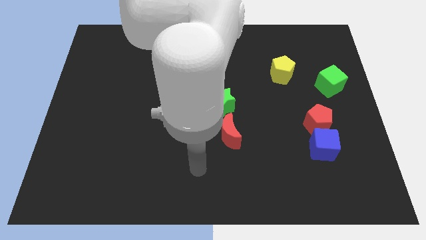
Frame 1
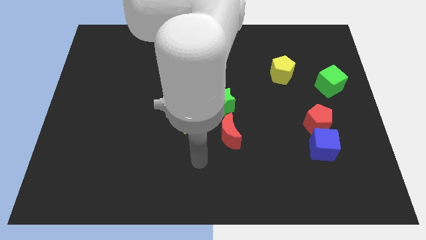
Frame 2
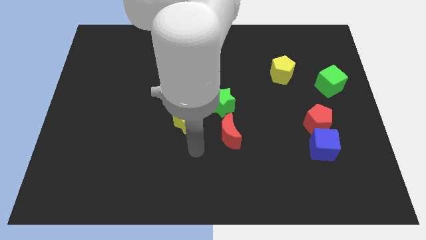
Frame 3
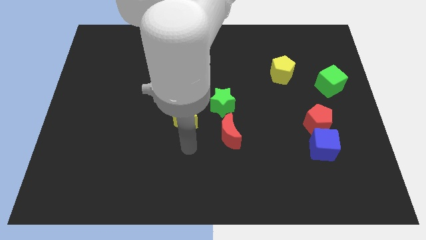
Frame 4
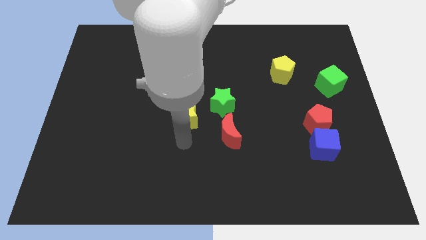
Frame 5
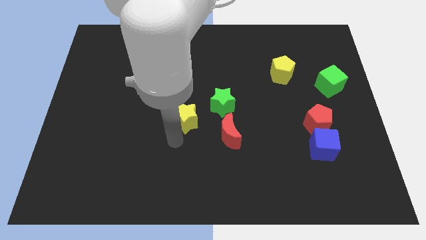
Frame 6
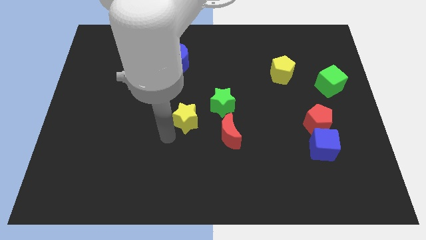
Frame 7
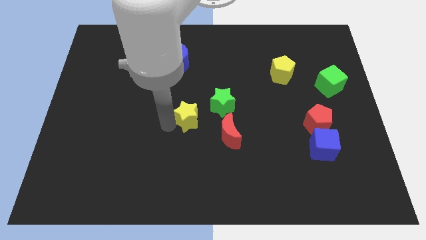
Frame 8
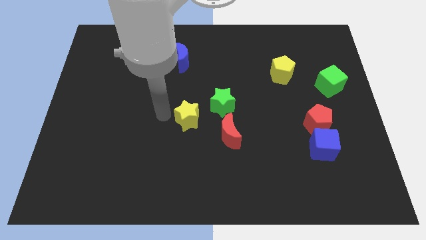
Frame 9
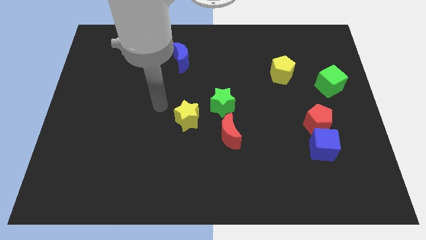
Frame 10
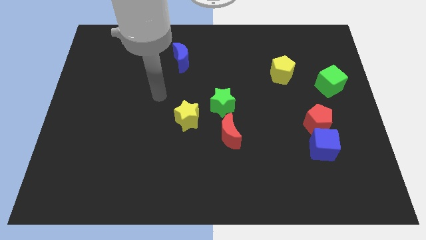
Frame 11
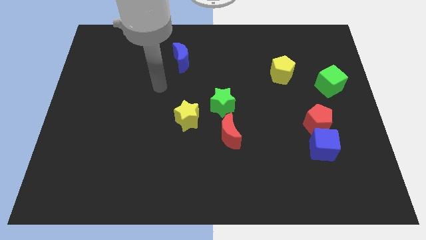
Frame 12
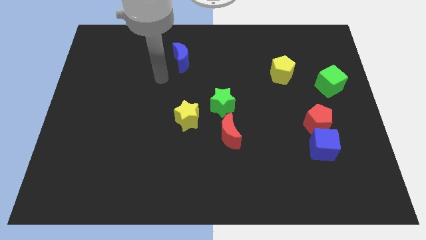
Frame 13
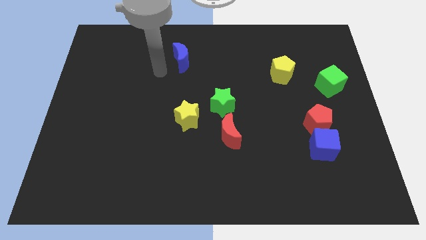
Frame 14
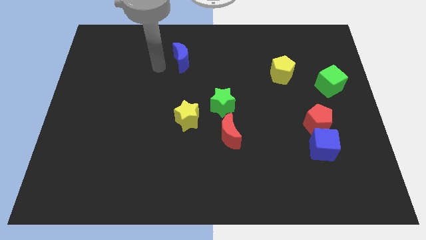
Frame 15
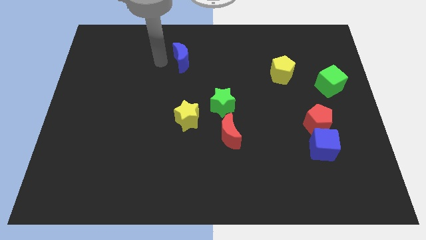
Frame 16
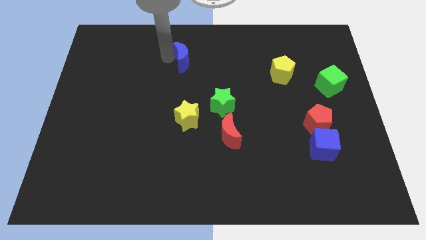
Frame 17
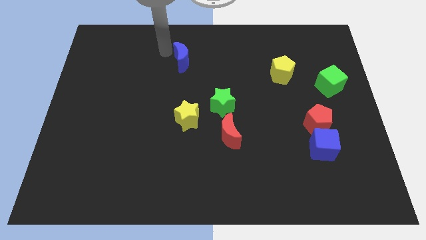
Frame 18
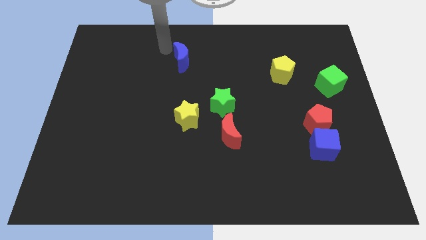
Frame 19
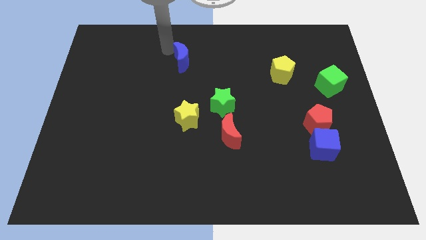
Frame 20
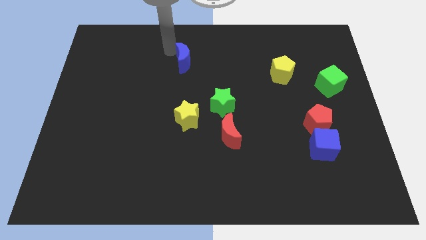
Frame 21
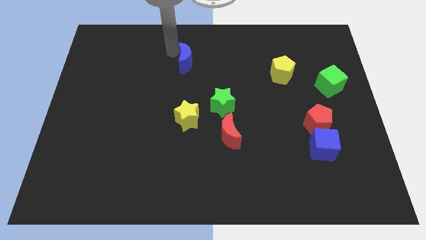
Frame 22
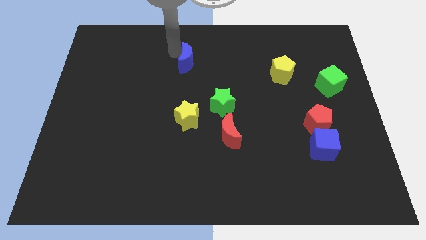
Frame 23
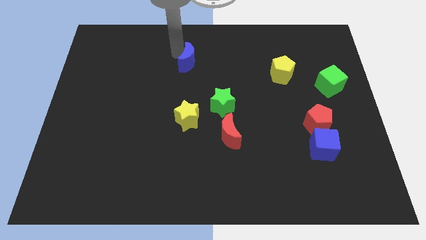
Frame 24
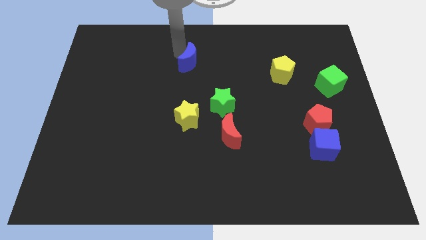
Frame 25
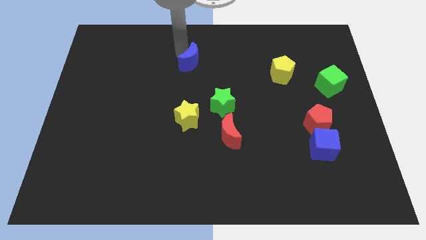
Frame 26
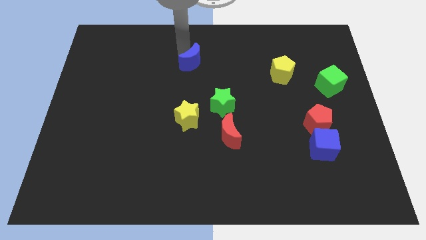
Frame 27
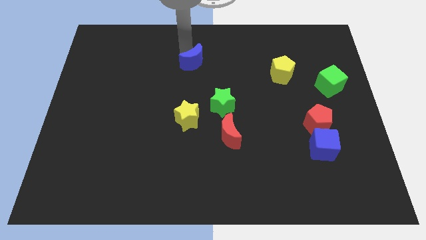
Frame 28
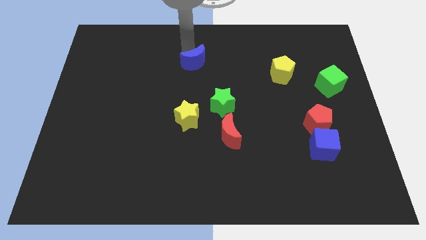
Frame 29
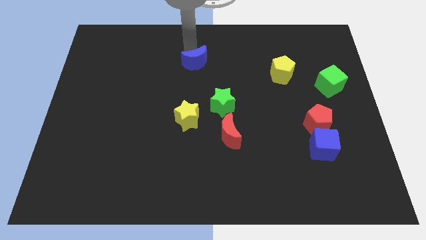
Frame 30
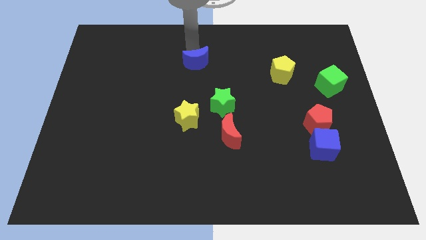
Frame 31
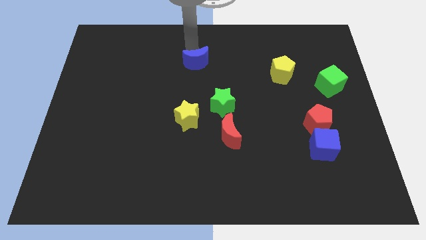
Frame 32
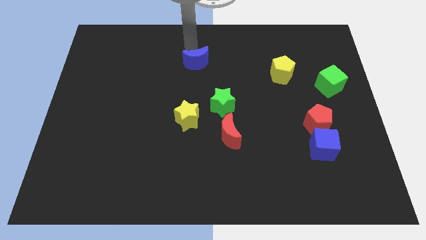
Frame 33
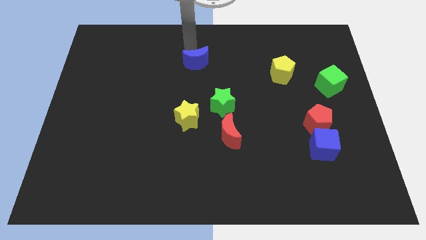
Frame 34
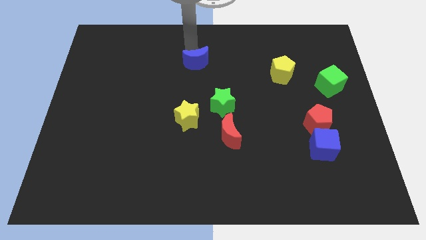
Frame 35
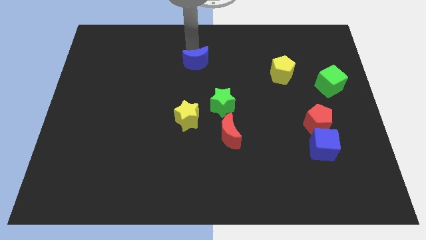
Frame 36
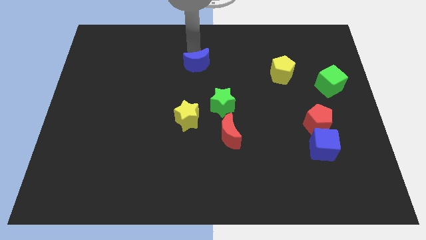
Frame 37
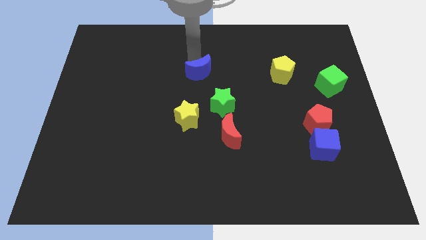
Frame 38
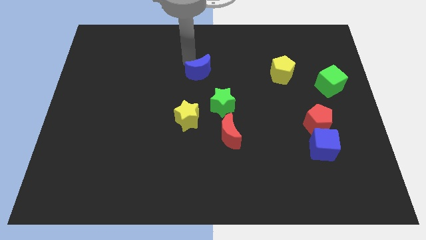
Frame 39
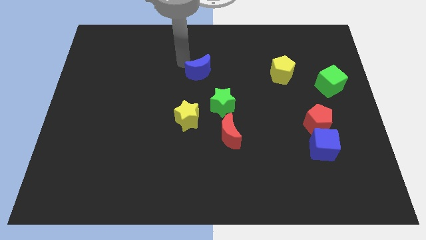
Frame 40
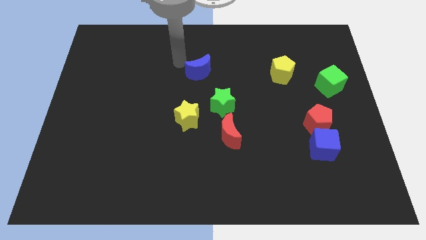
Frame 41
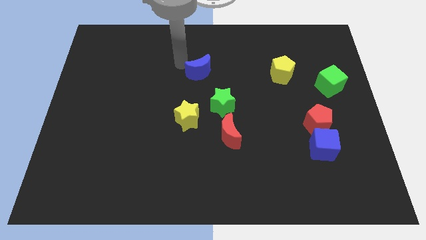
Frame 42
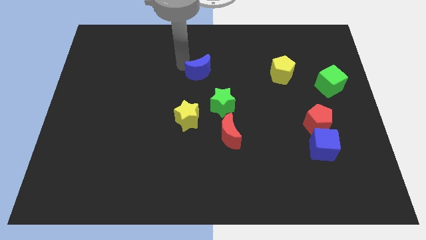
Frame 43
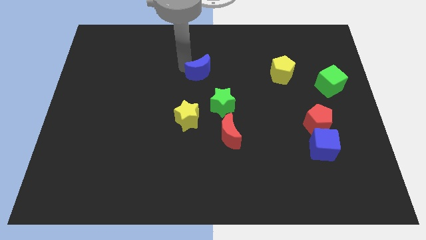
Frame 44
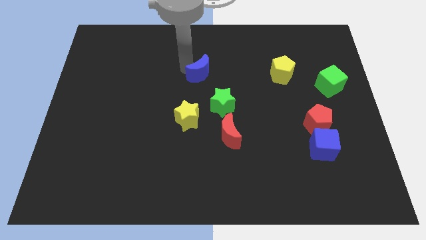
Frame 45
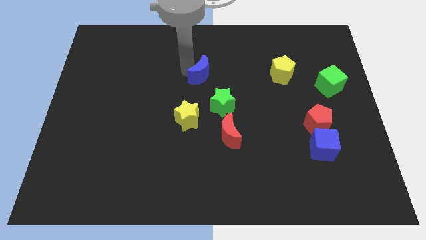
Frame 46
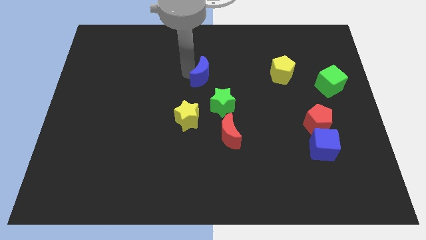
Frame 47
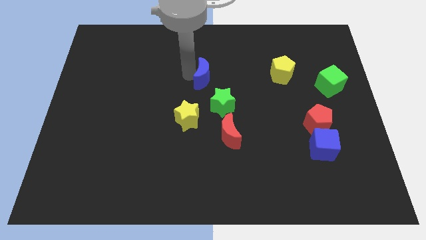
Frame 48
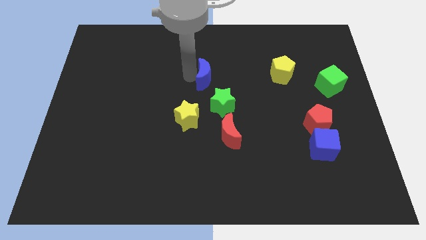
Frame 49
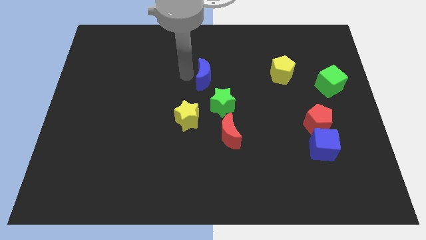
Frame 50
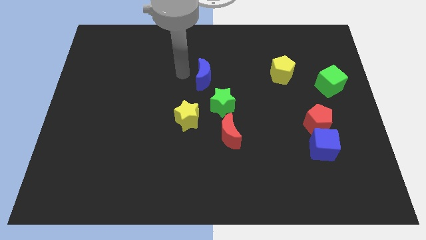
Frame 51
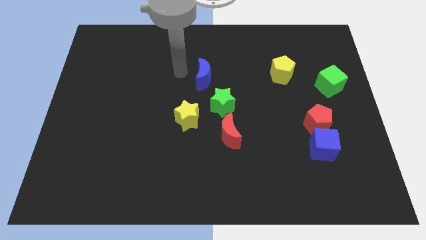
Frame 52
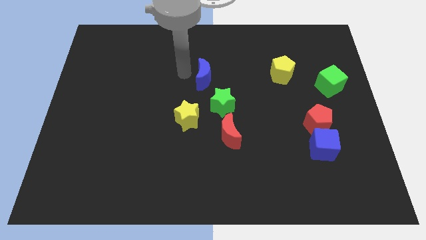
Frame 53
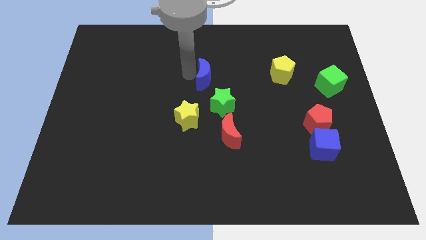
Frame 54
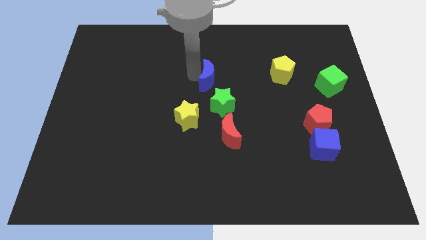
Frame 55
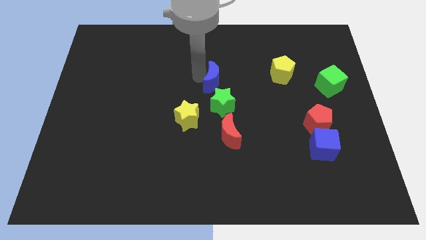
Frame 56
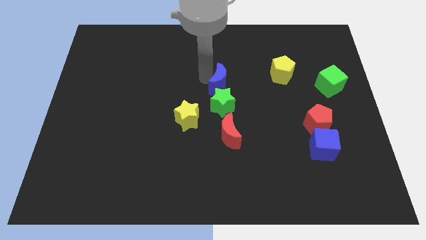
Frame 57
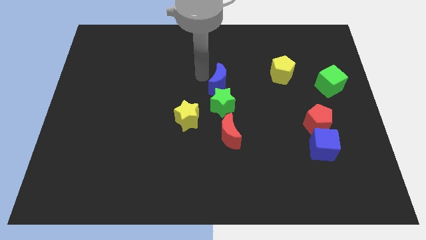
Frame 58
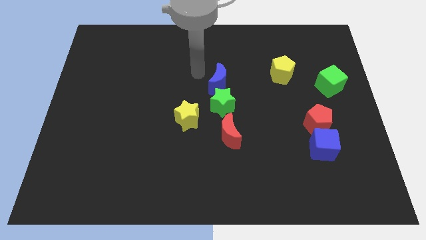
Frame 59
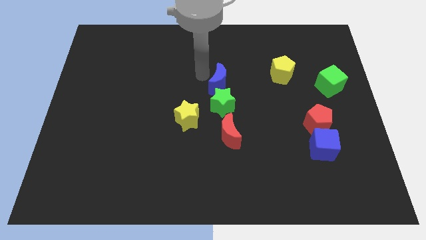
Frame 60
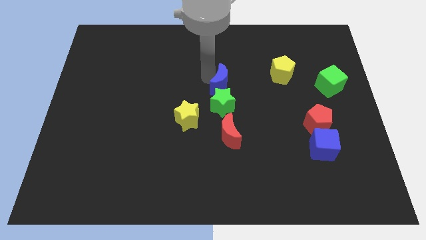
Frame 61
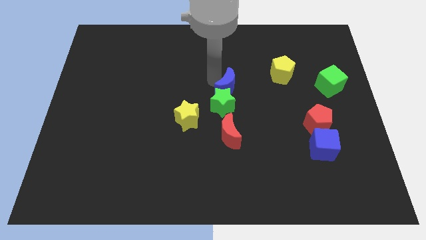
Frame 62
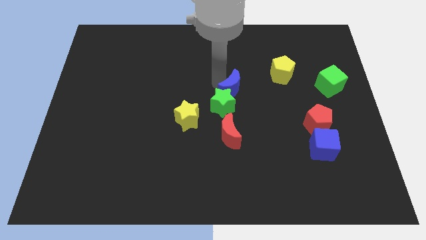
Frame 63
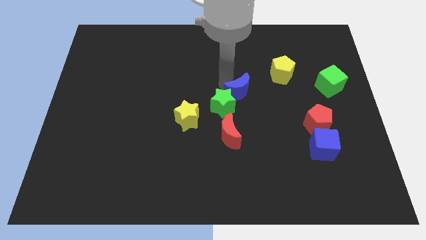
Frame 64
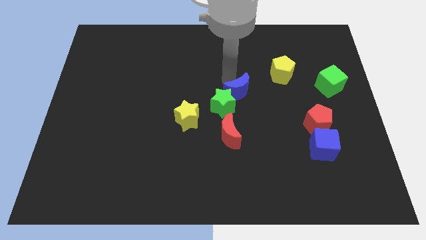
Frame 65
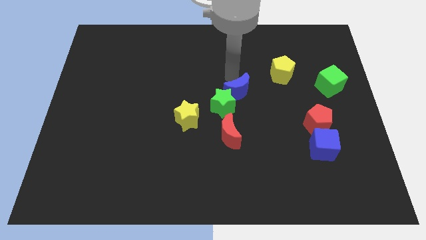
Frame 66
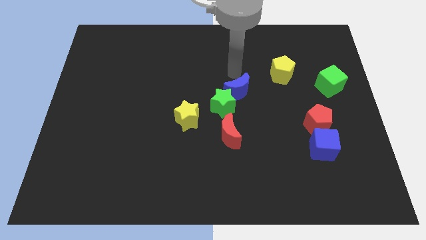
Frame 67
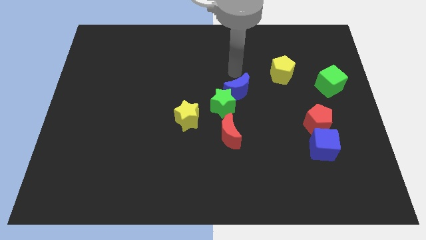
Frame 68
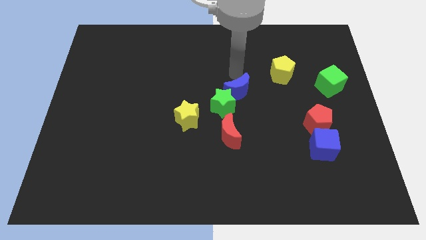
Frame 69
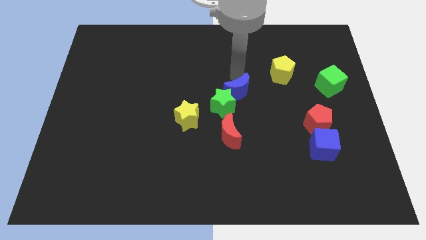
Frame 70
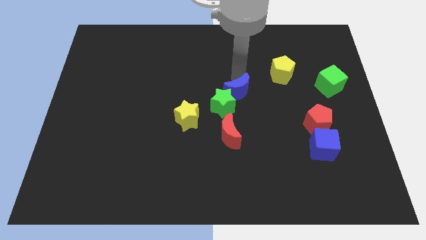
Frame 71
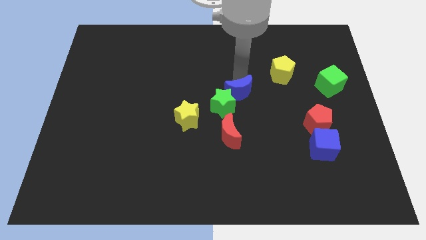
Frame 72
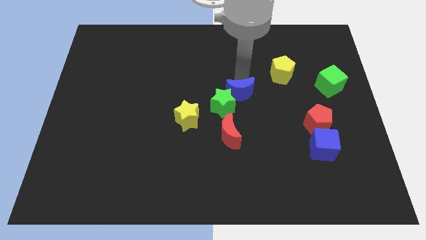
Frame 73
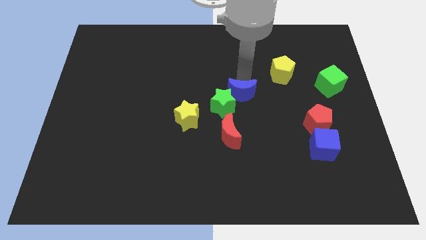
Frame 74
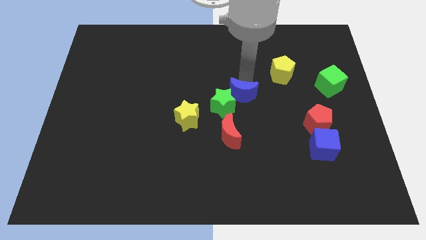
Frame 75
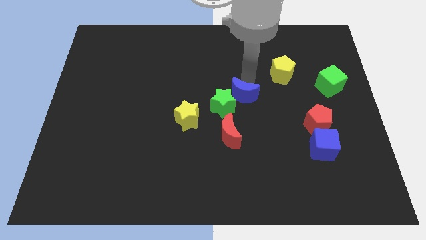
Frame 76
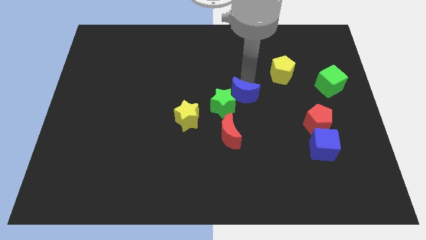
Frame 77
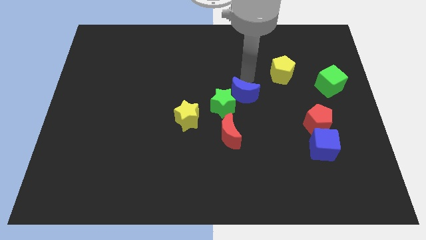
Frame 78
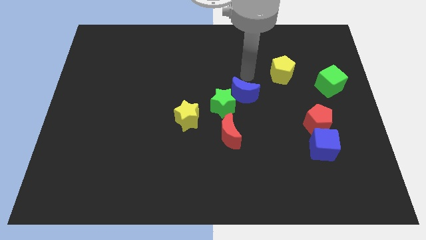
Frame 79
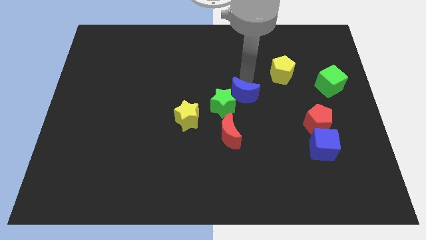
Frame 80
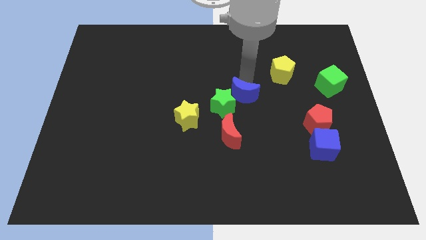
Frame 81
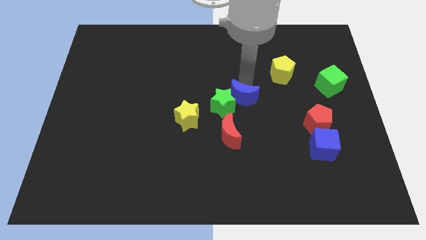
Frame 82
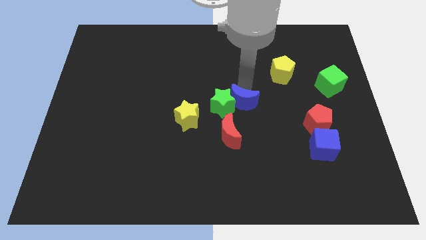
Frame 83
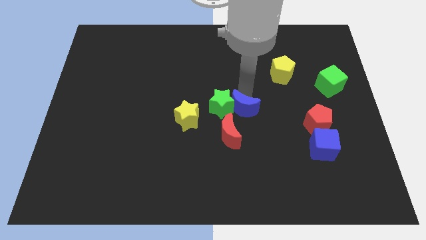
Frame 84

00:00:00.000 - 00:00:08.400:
move the blue moon to the right side of the yellow star
